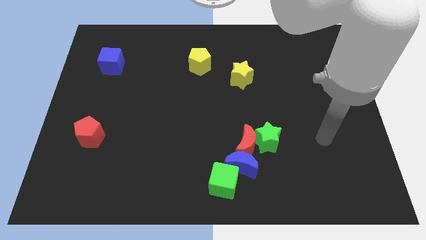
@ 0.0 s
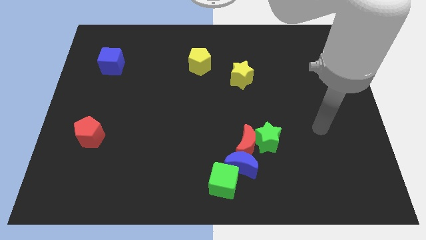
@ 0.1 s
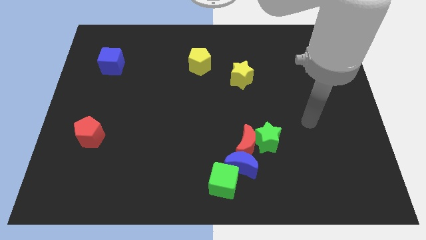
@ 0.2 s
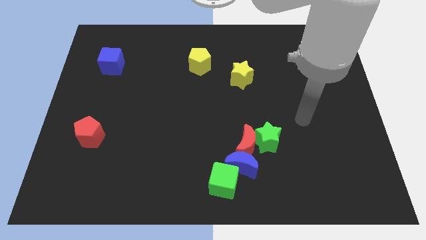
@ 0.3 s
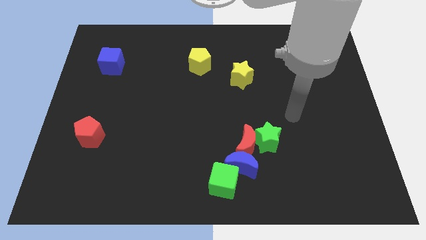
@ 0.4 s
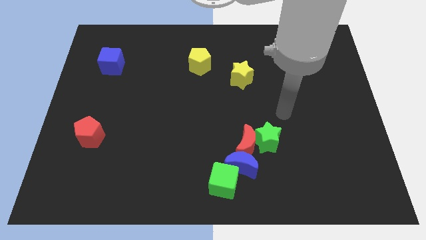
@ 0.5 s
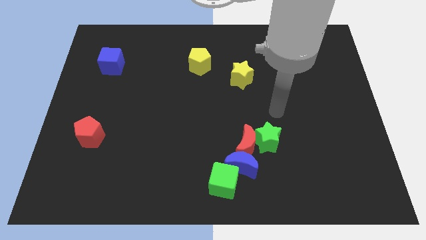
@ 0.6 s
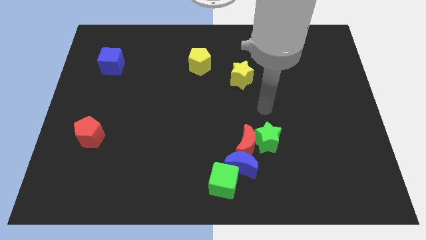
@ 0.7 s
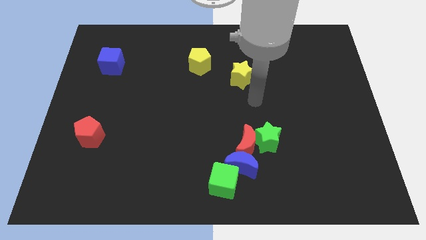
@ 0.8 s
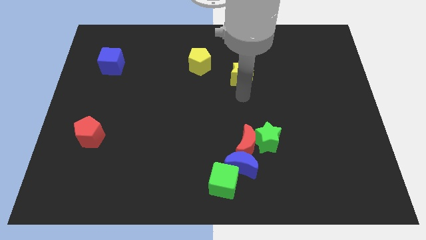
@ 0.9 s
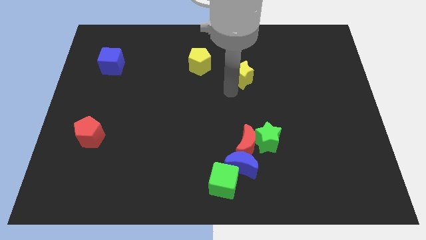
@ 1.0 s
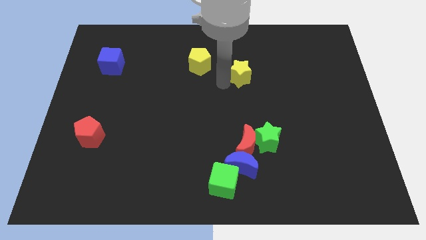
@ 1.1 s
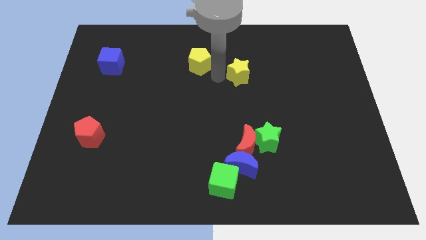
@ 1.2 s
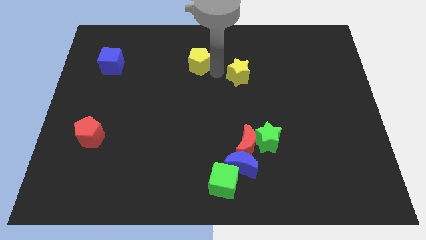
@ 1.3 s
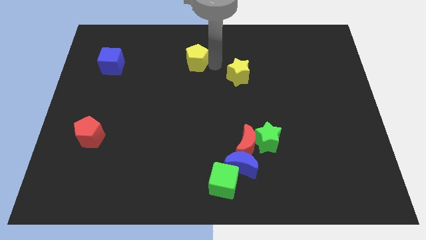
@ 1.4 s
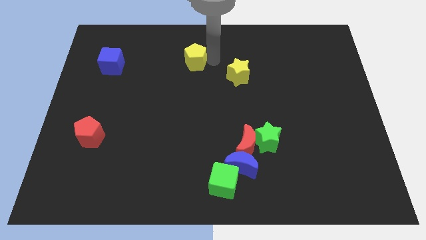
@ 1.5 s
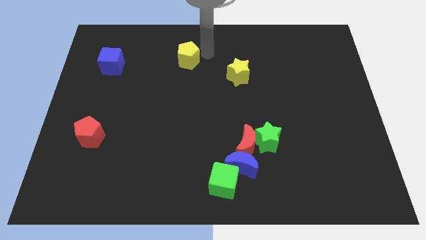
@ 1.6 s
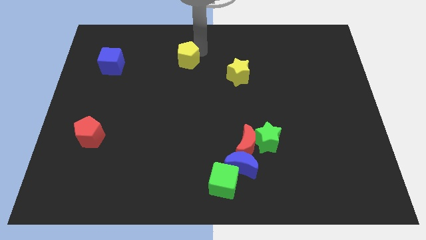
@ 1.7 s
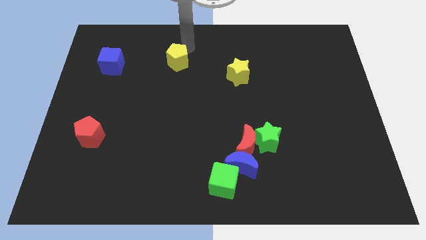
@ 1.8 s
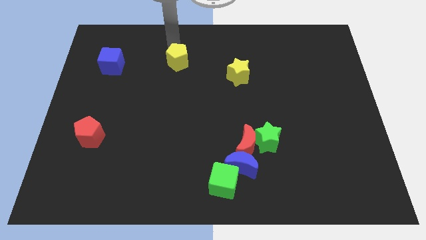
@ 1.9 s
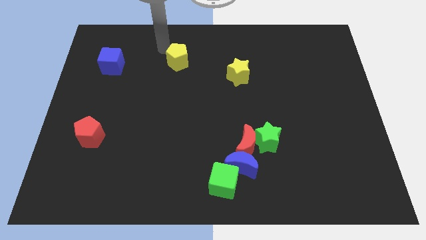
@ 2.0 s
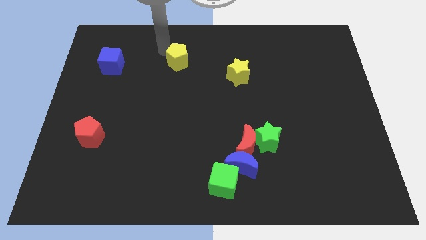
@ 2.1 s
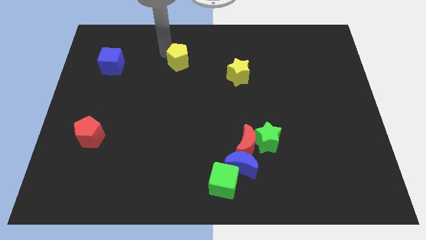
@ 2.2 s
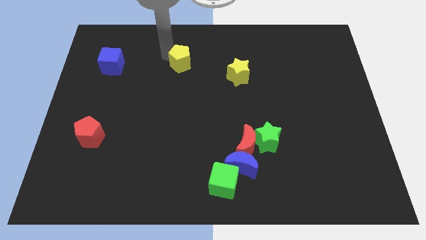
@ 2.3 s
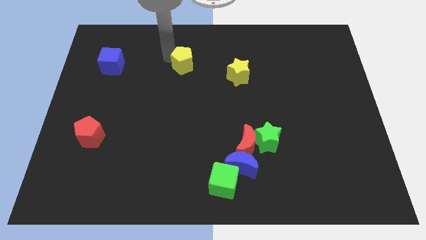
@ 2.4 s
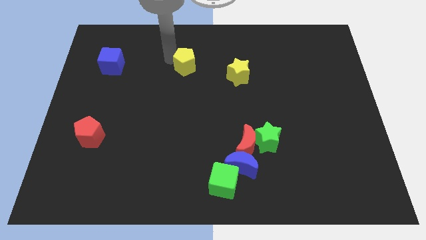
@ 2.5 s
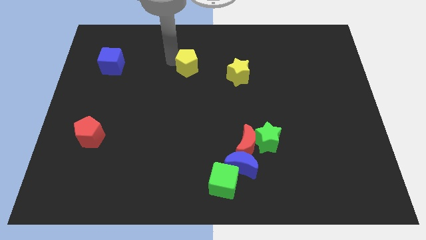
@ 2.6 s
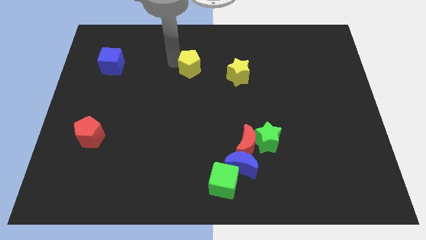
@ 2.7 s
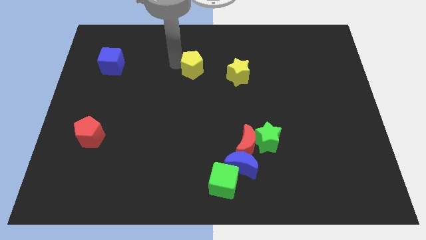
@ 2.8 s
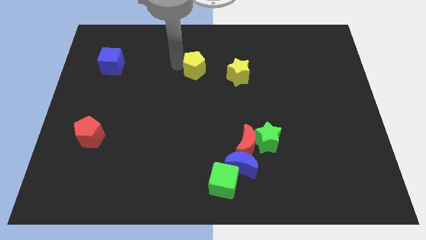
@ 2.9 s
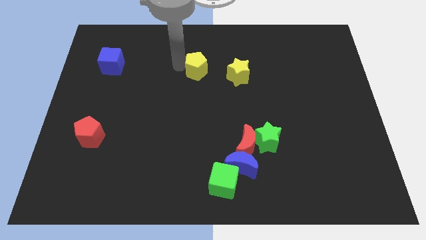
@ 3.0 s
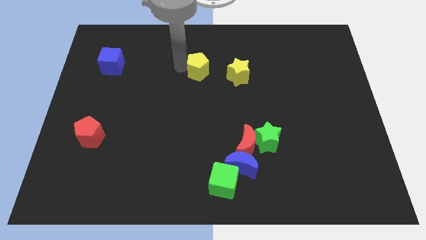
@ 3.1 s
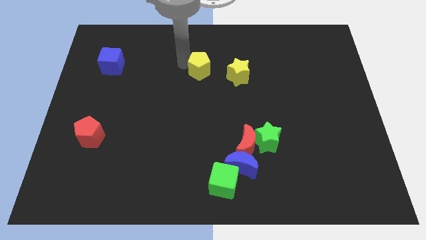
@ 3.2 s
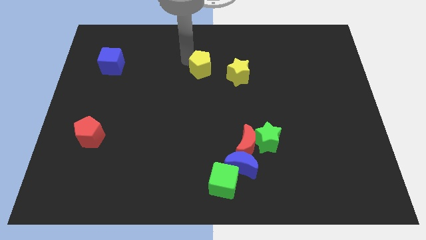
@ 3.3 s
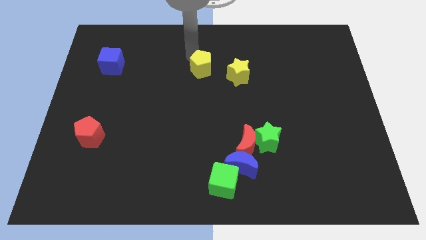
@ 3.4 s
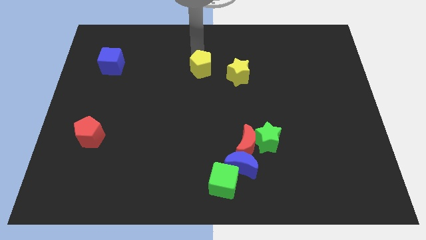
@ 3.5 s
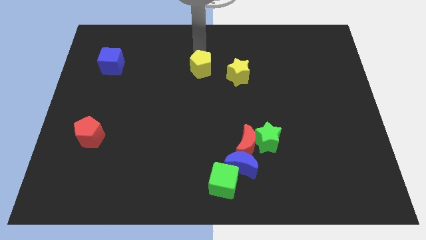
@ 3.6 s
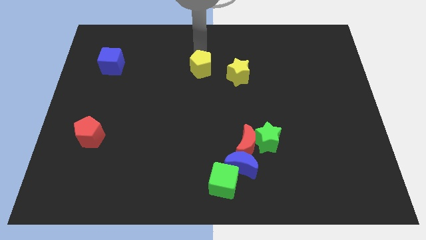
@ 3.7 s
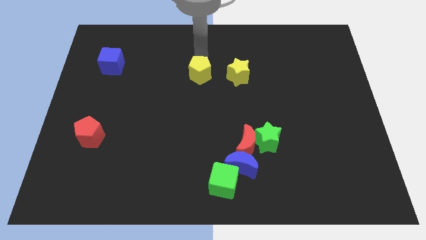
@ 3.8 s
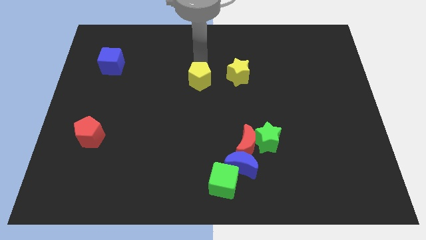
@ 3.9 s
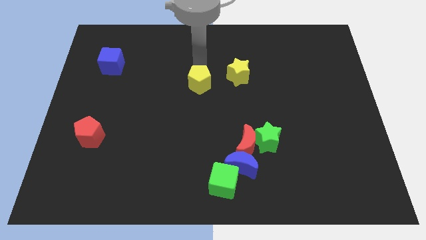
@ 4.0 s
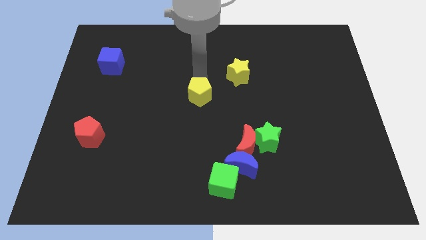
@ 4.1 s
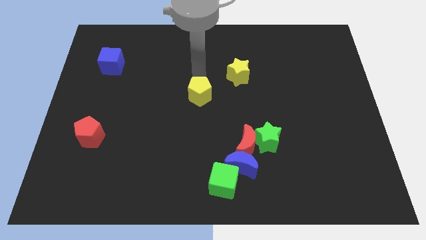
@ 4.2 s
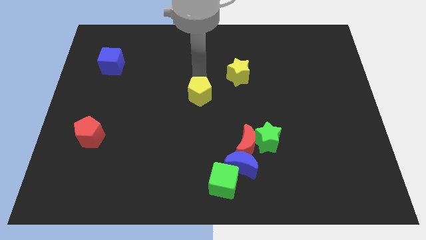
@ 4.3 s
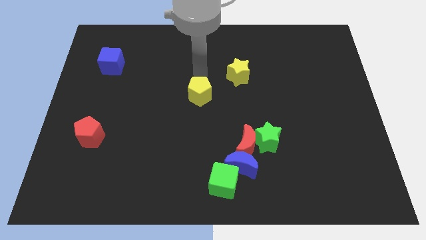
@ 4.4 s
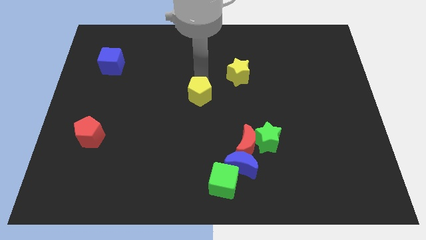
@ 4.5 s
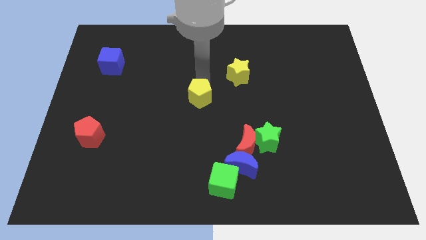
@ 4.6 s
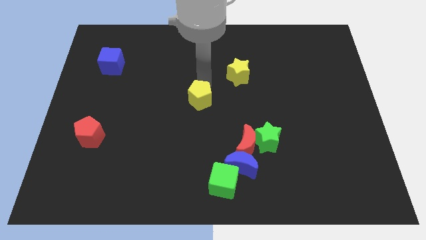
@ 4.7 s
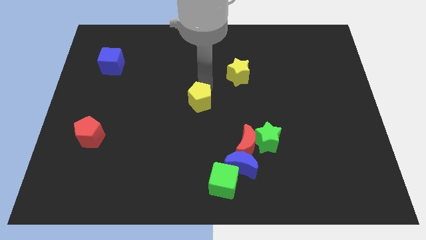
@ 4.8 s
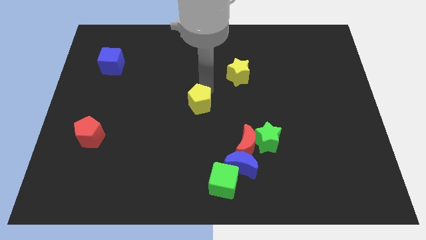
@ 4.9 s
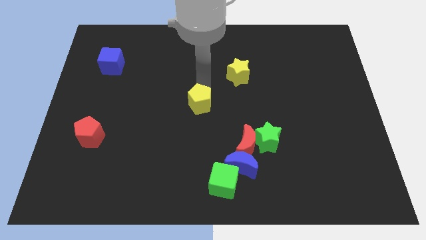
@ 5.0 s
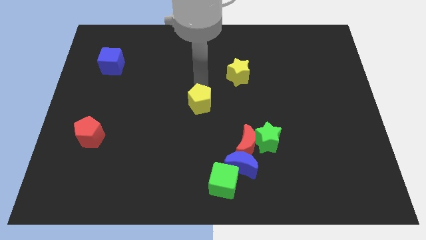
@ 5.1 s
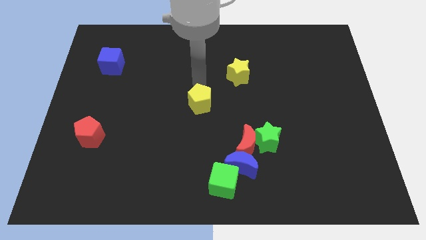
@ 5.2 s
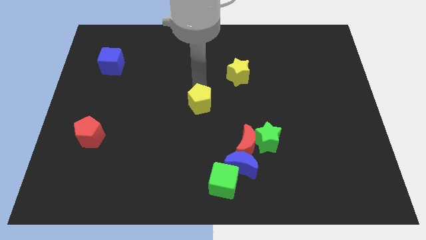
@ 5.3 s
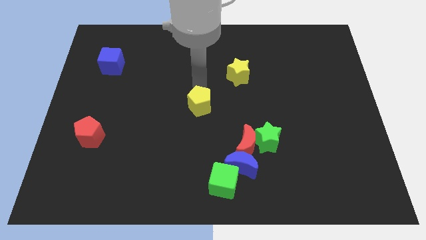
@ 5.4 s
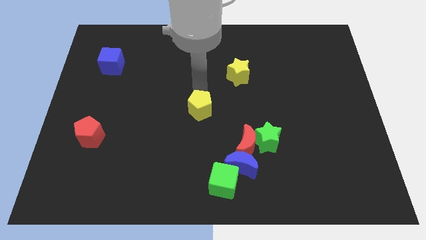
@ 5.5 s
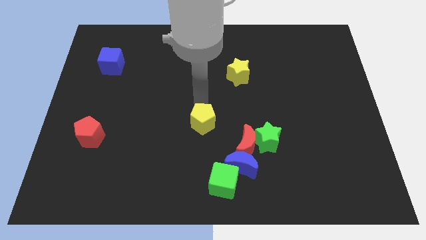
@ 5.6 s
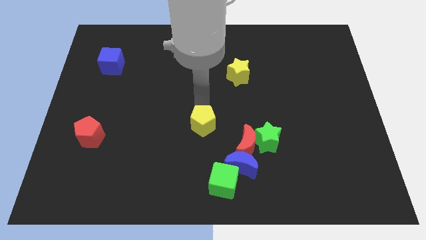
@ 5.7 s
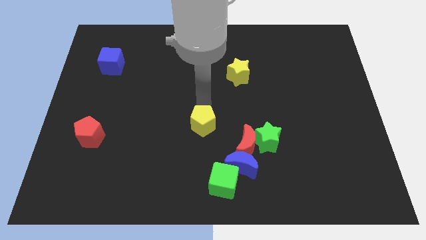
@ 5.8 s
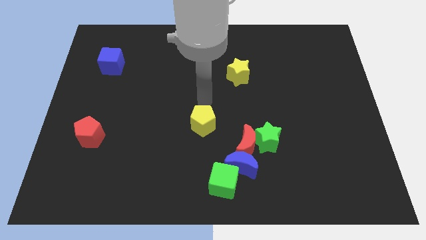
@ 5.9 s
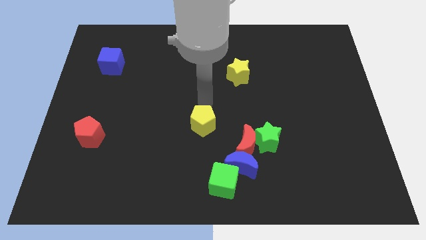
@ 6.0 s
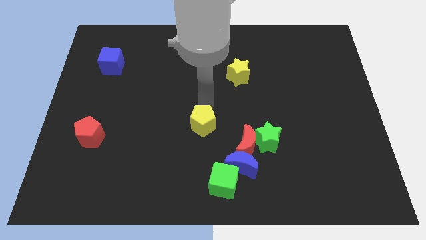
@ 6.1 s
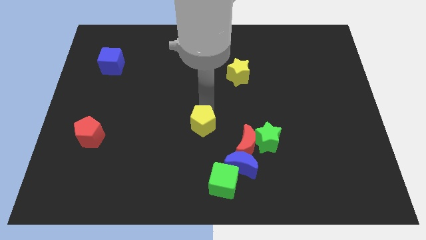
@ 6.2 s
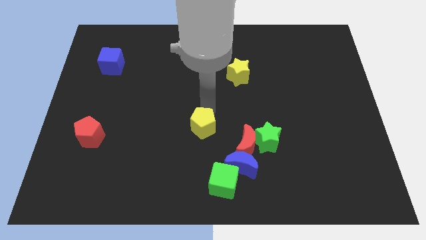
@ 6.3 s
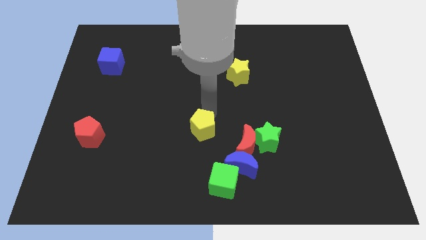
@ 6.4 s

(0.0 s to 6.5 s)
push the yellow pentagon down

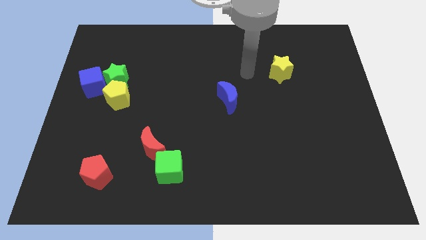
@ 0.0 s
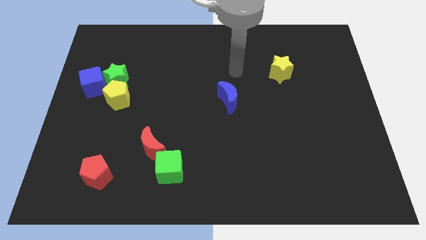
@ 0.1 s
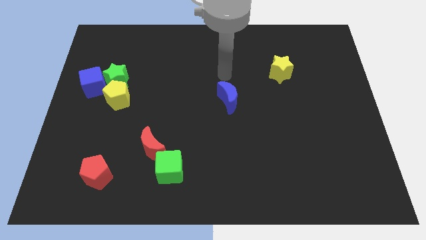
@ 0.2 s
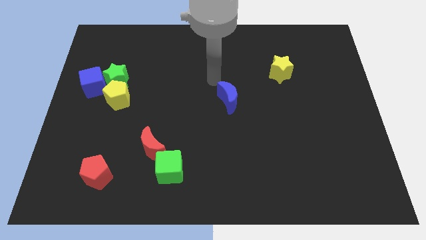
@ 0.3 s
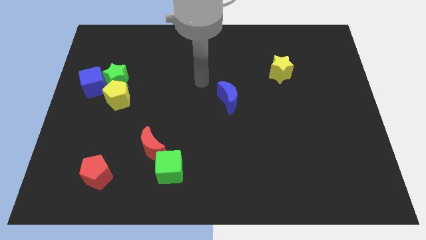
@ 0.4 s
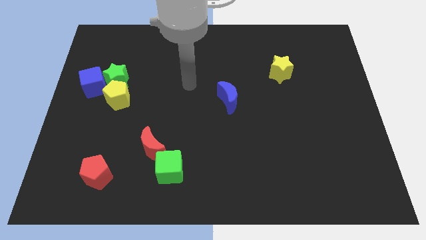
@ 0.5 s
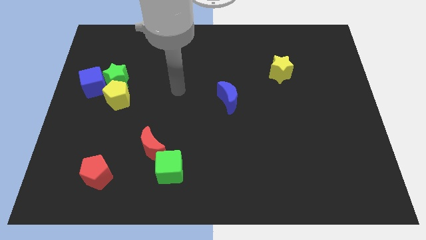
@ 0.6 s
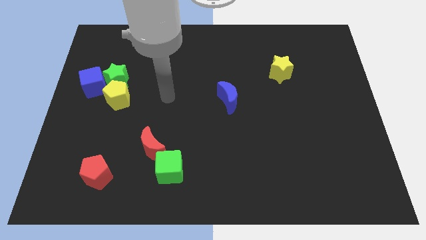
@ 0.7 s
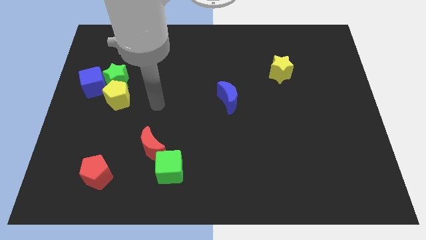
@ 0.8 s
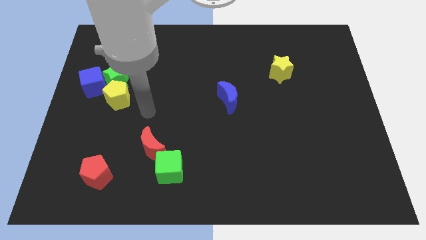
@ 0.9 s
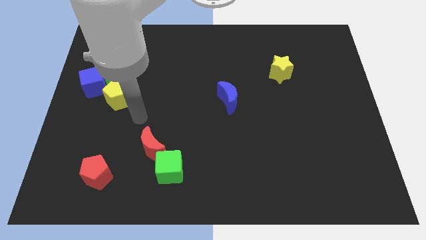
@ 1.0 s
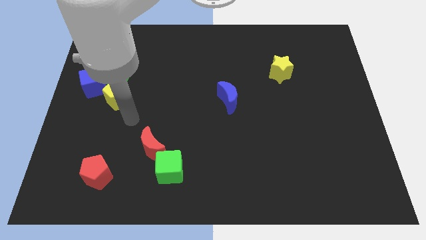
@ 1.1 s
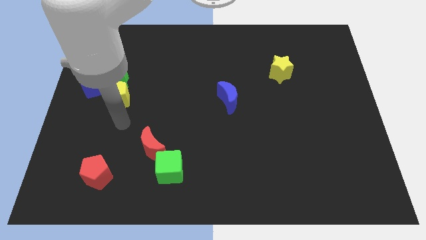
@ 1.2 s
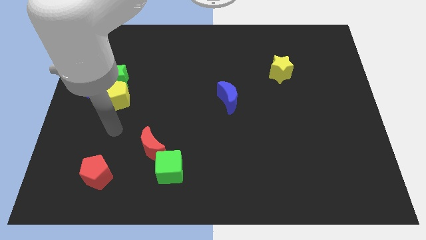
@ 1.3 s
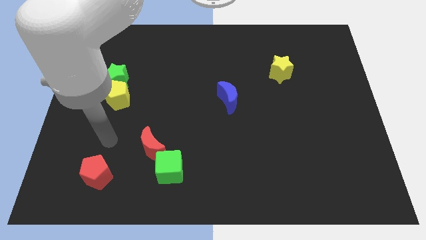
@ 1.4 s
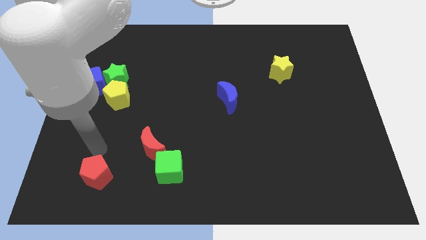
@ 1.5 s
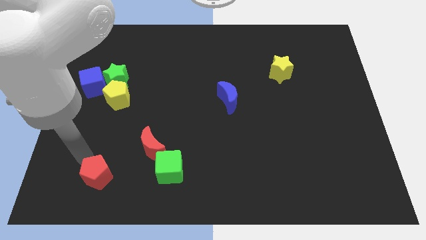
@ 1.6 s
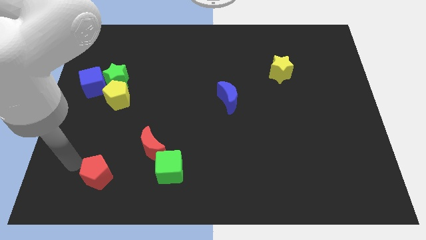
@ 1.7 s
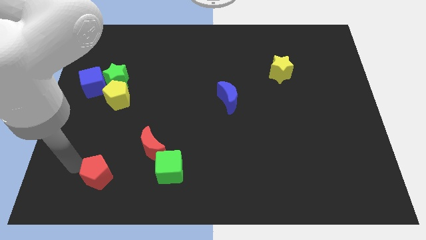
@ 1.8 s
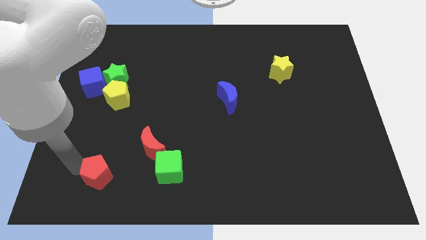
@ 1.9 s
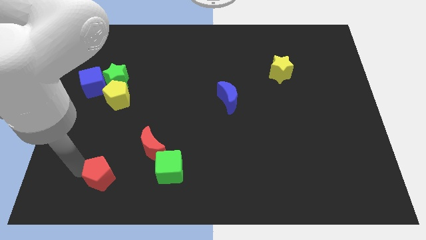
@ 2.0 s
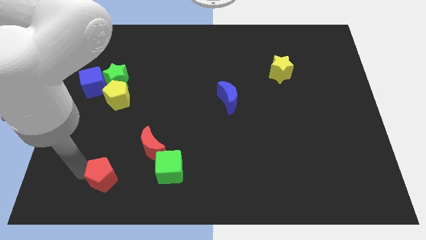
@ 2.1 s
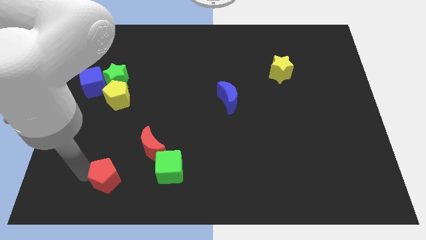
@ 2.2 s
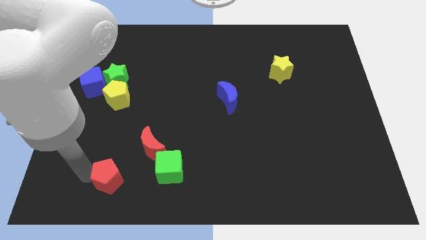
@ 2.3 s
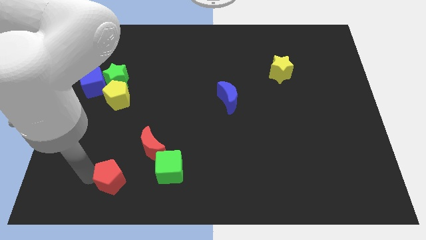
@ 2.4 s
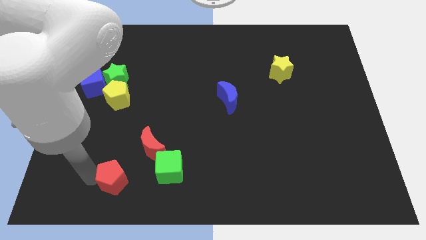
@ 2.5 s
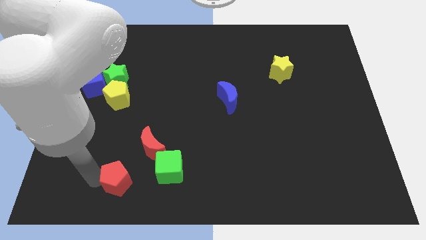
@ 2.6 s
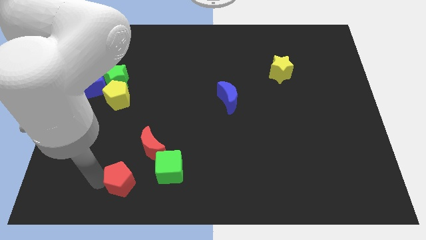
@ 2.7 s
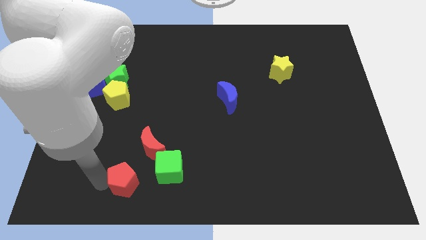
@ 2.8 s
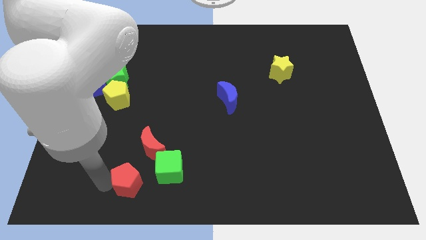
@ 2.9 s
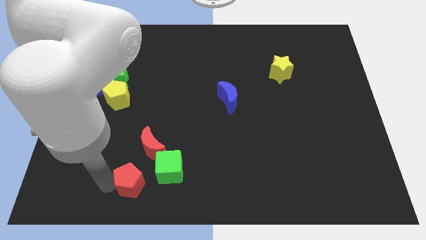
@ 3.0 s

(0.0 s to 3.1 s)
slightly move the red pentagon to the right
